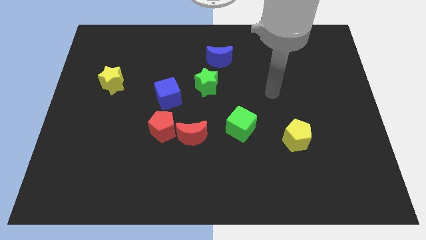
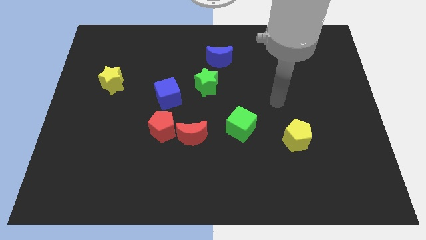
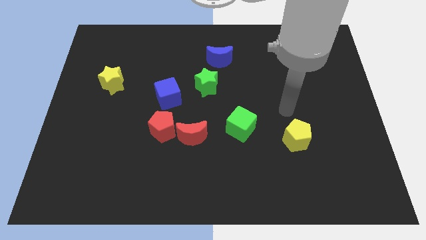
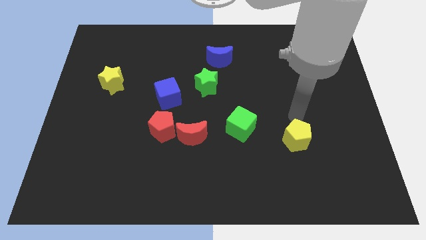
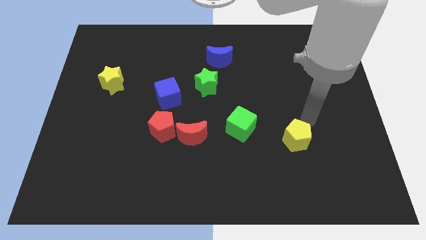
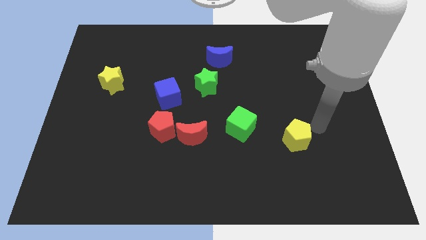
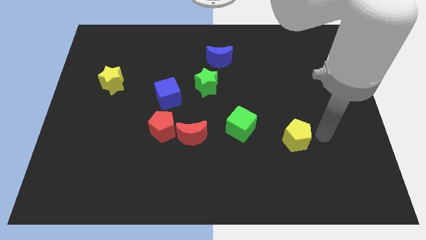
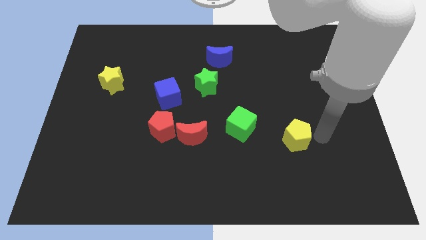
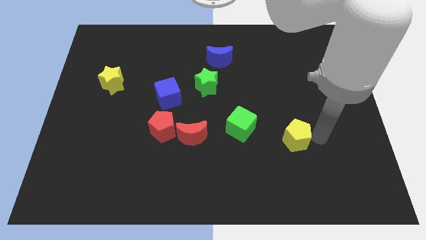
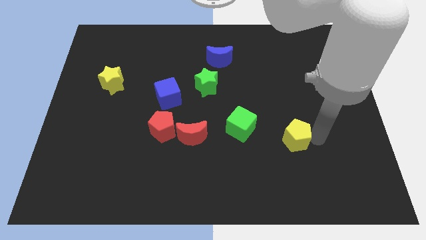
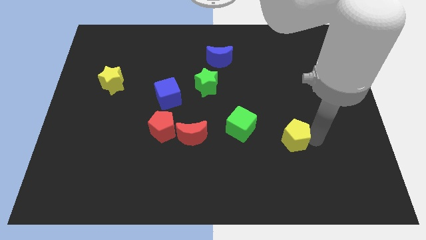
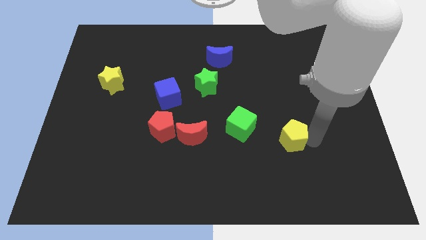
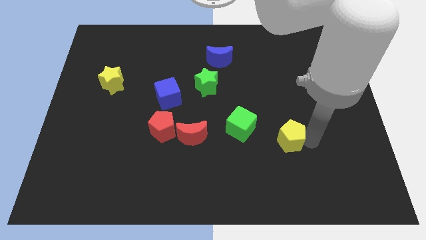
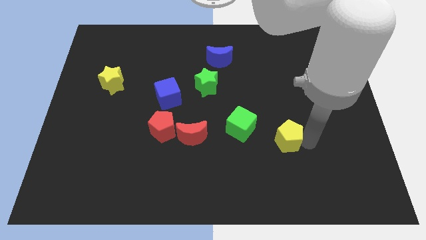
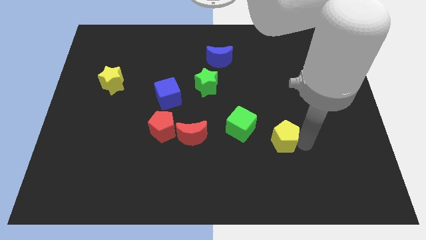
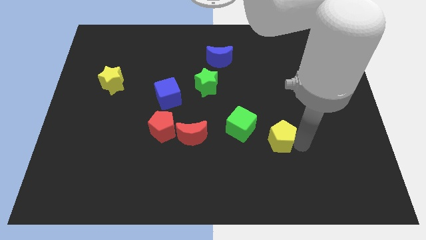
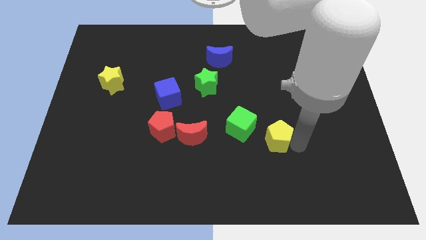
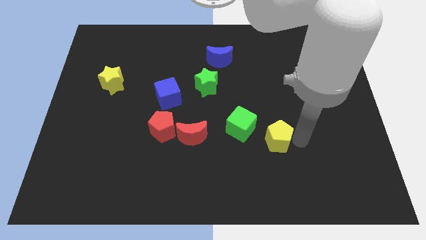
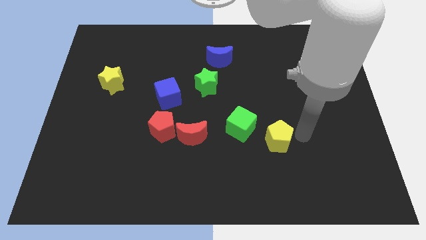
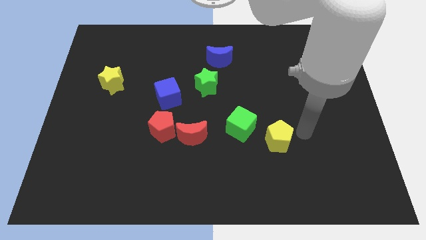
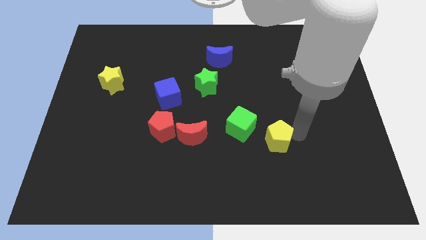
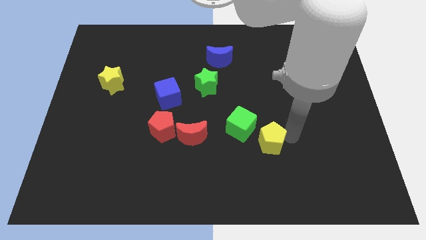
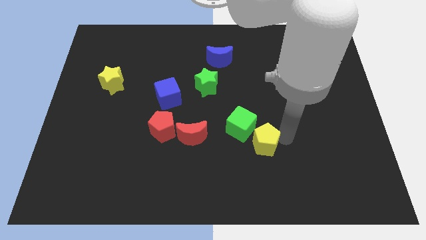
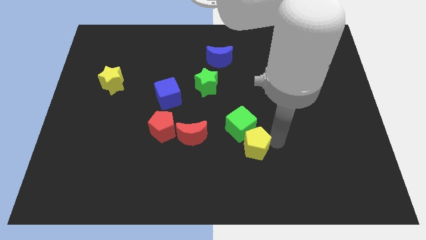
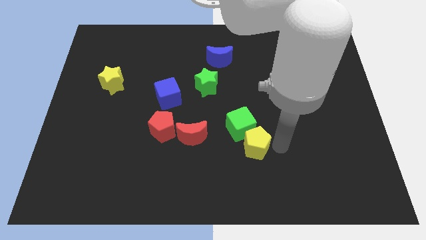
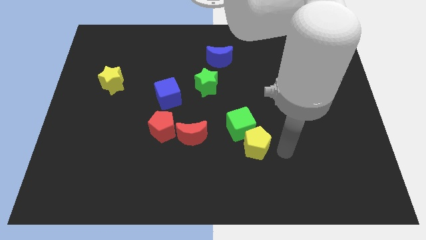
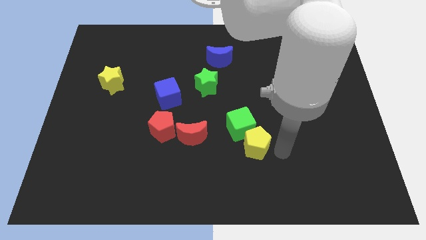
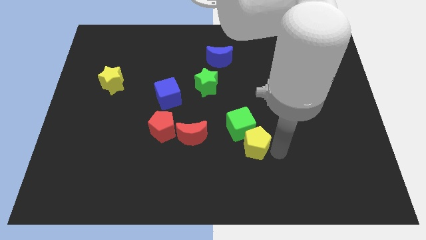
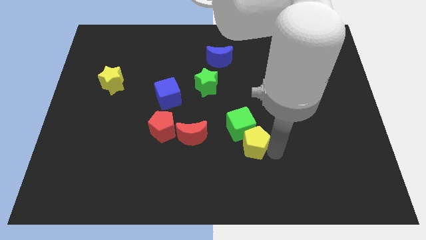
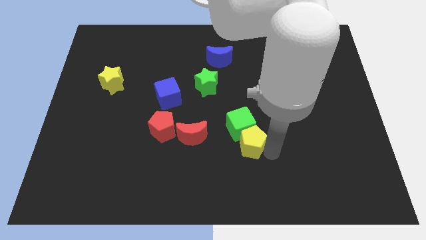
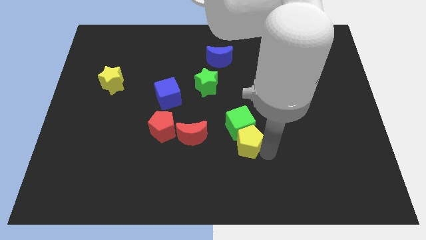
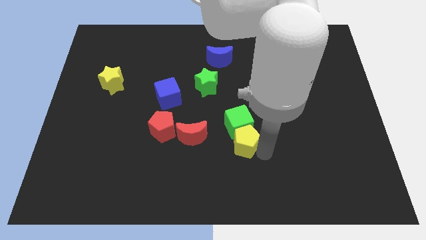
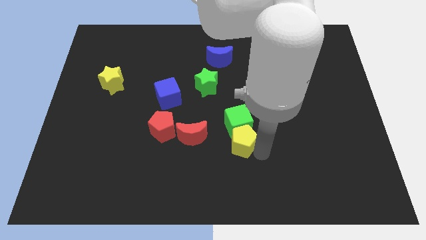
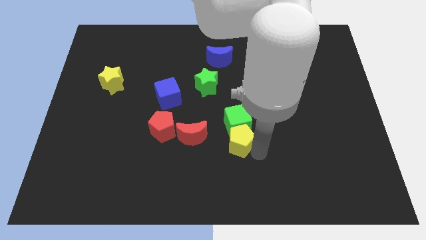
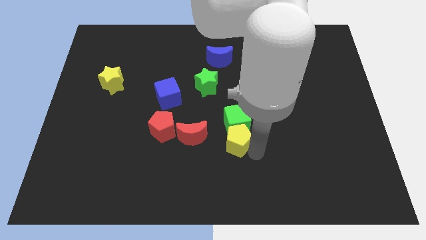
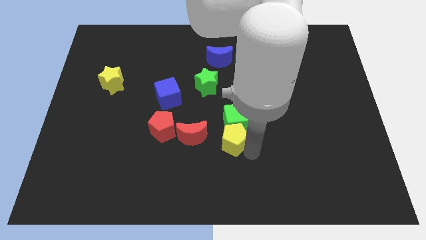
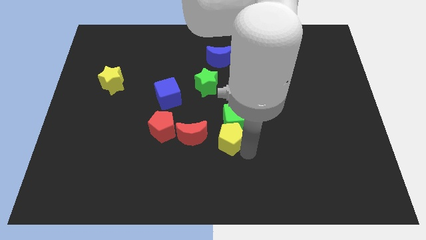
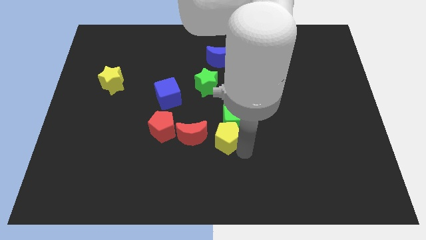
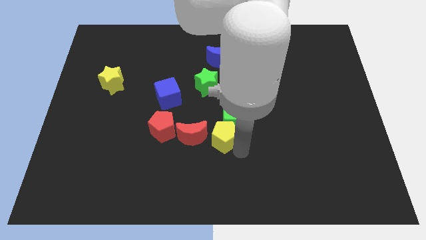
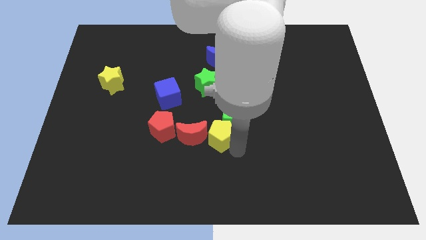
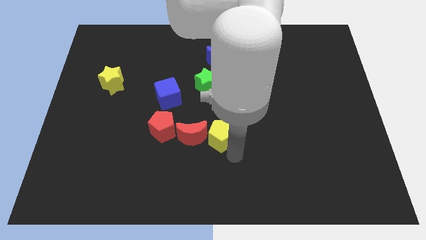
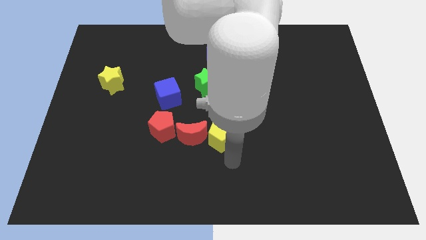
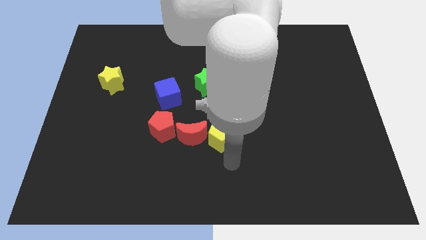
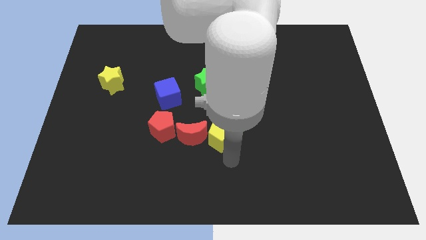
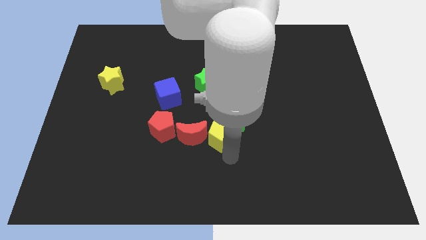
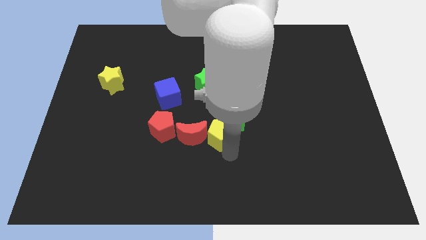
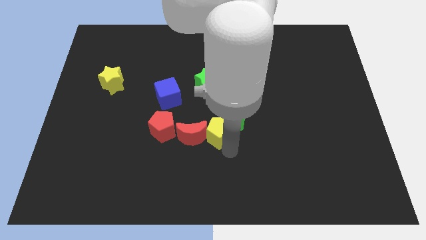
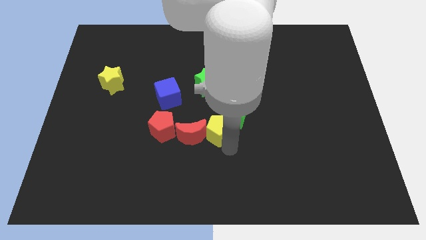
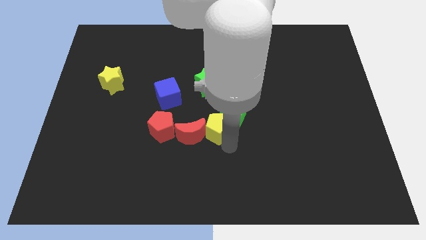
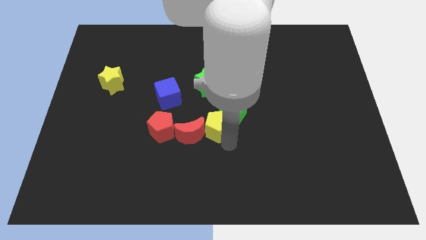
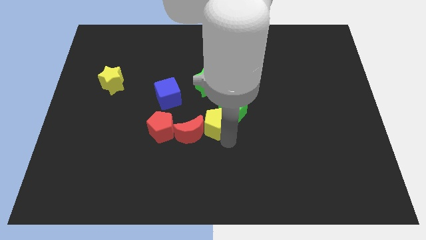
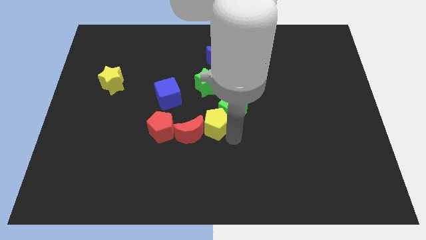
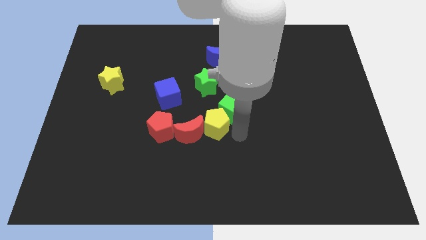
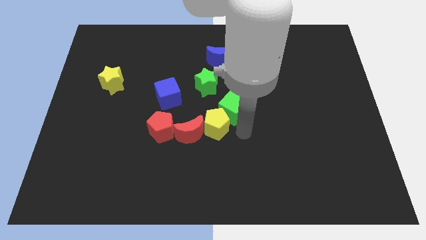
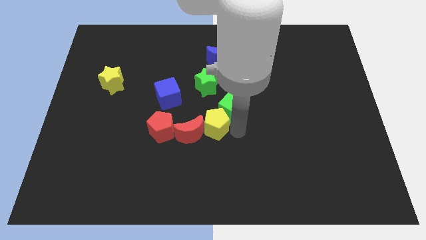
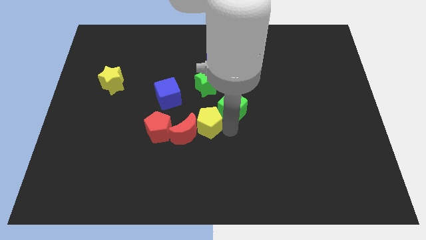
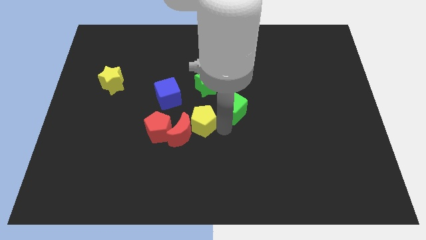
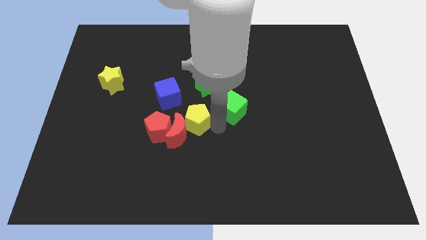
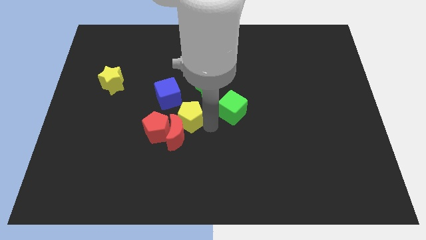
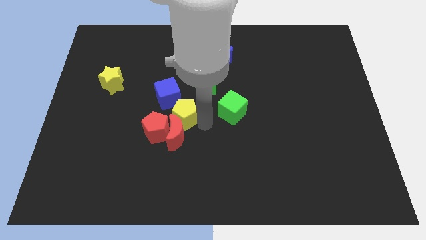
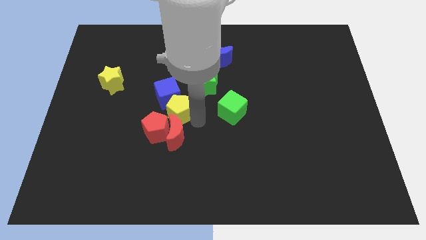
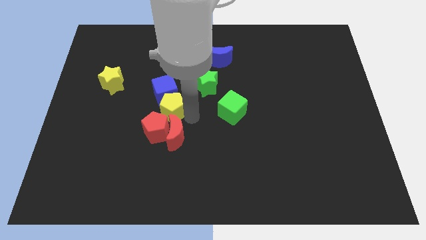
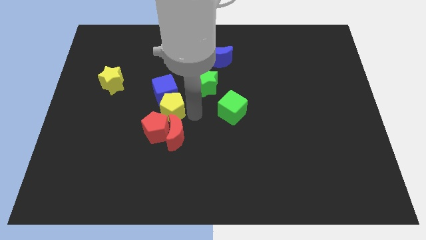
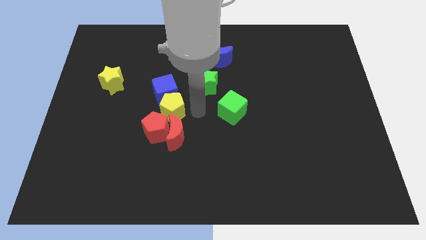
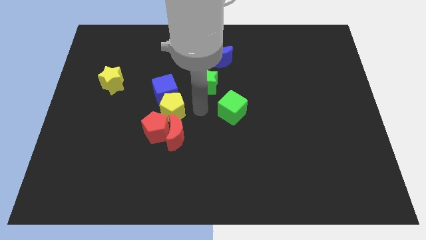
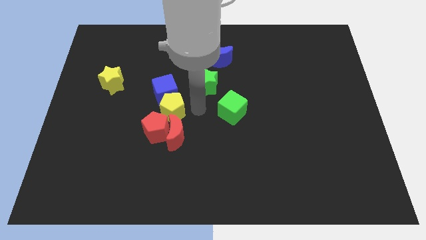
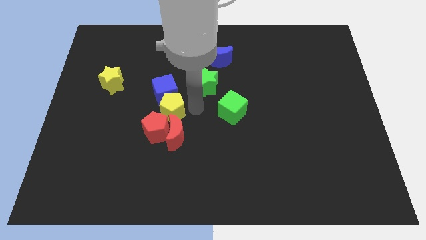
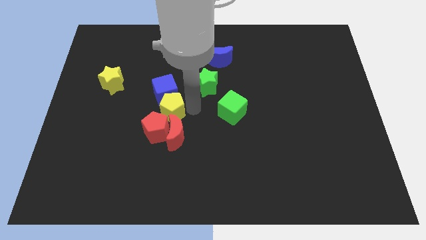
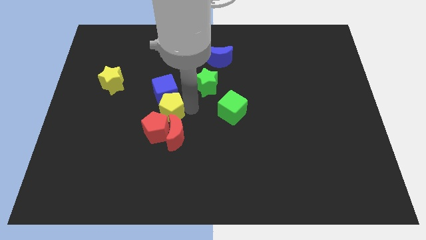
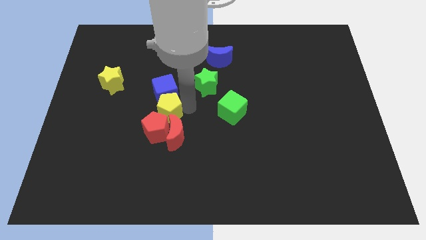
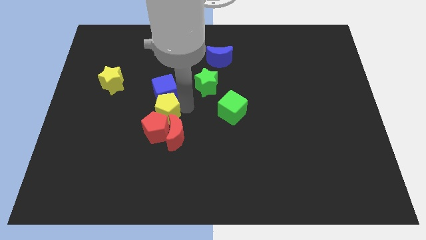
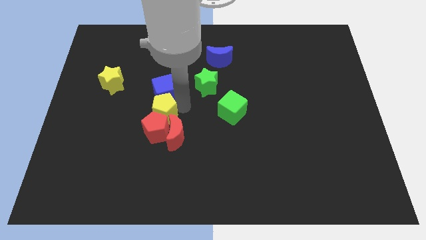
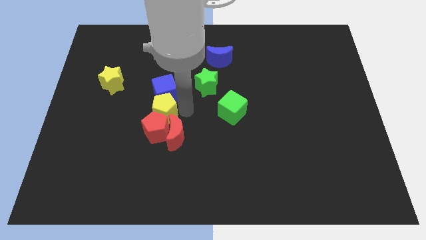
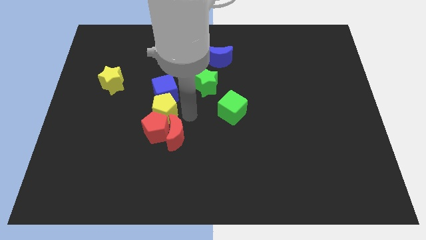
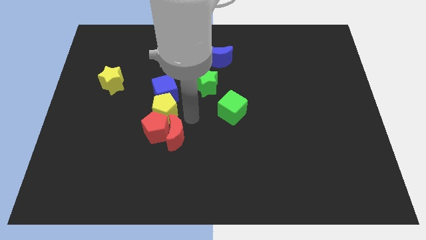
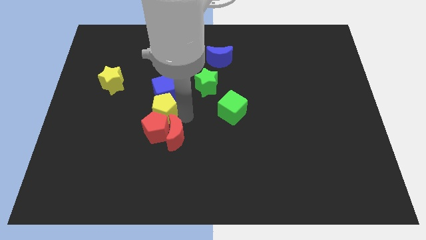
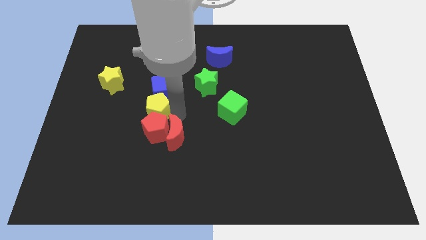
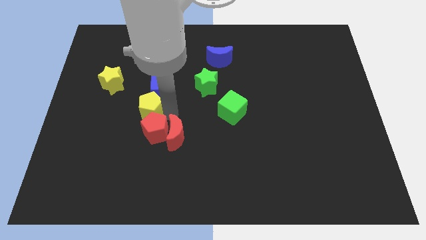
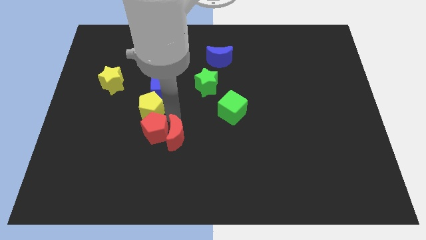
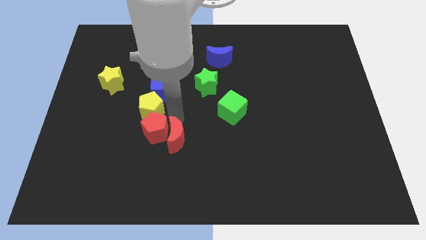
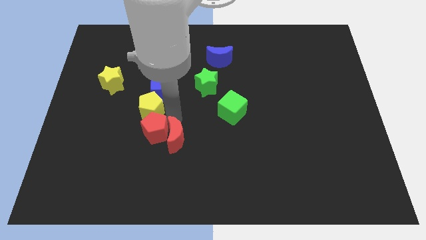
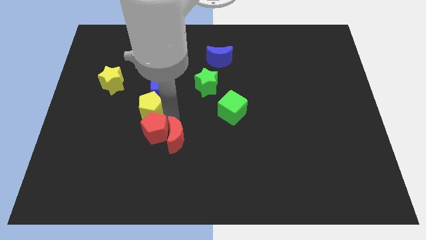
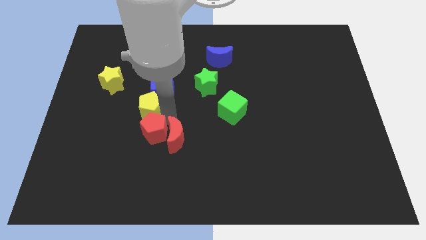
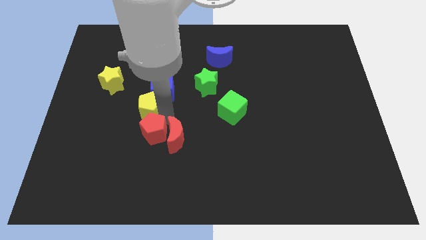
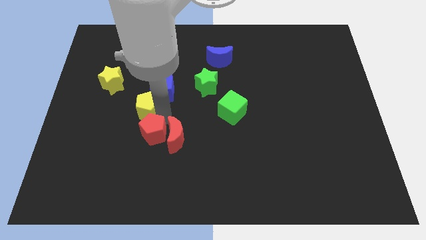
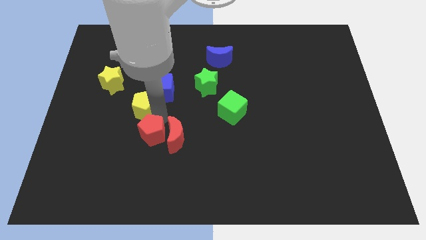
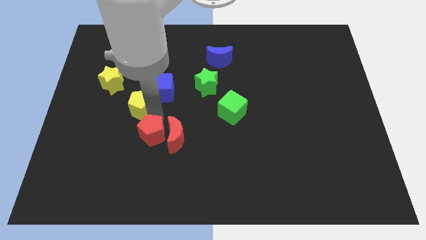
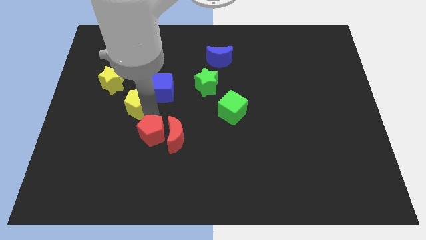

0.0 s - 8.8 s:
push the yellow pentagon left of the blue cube
